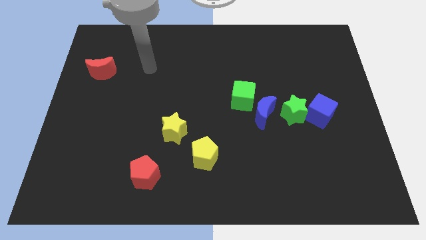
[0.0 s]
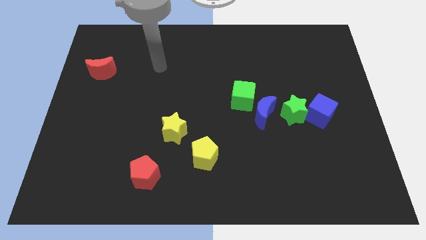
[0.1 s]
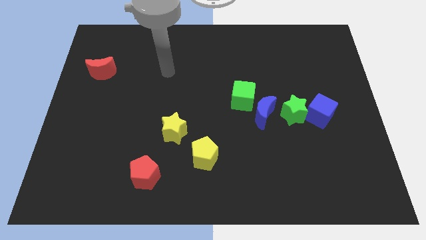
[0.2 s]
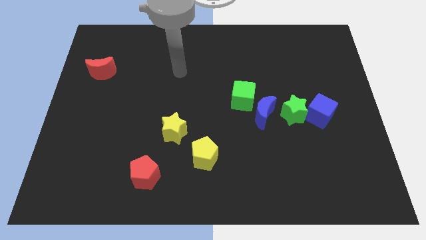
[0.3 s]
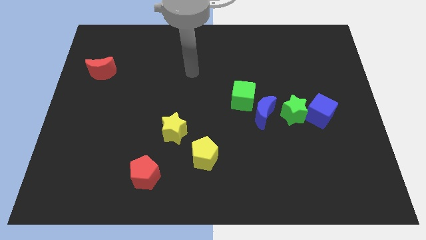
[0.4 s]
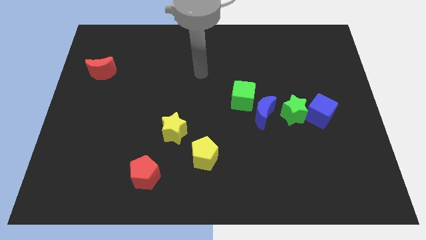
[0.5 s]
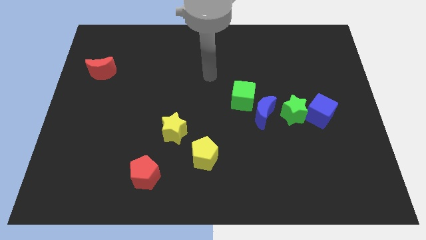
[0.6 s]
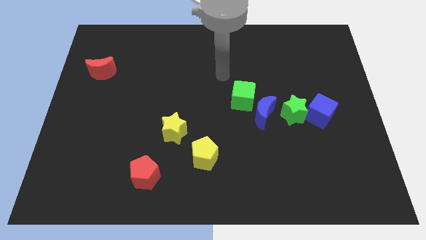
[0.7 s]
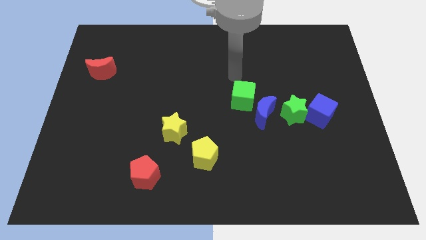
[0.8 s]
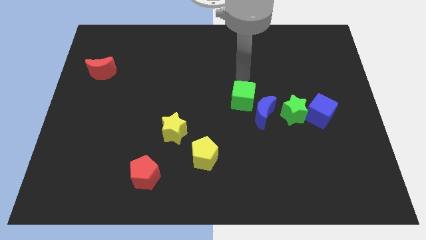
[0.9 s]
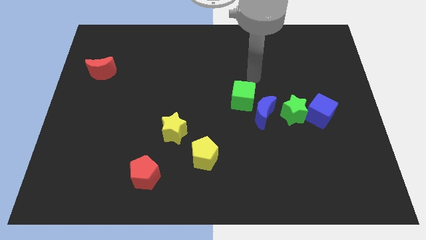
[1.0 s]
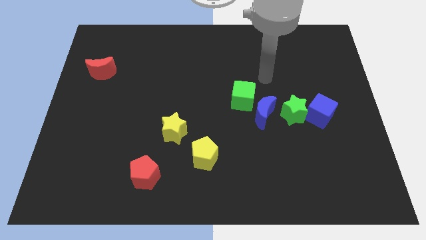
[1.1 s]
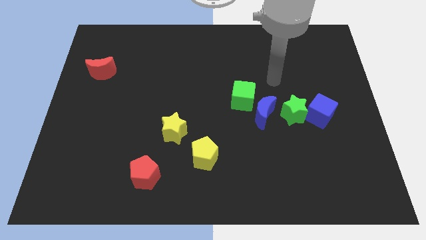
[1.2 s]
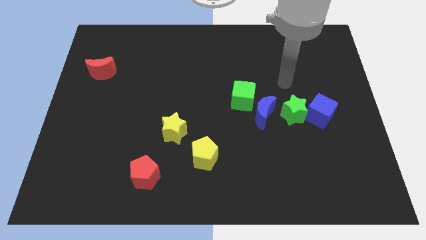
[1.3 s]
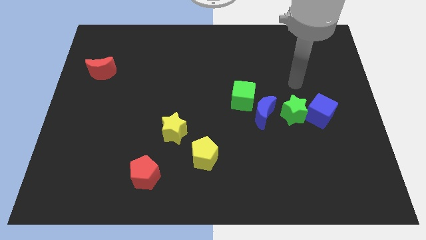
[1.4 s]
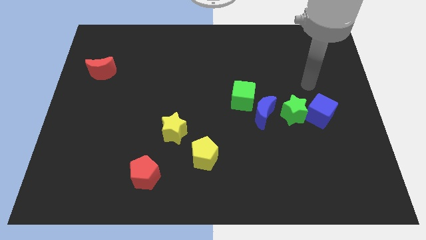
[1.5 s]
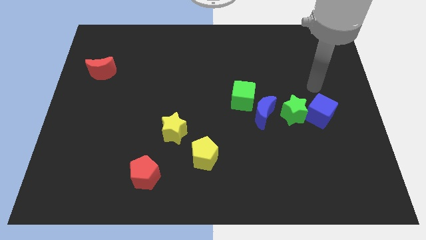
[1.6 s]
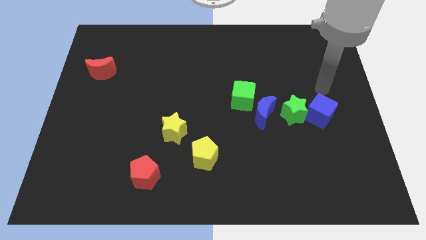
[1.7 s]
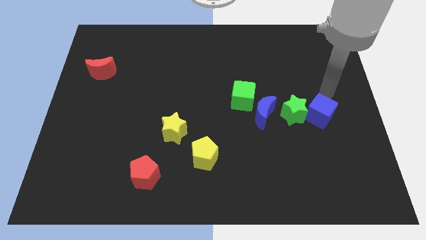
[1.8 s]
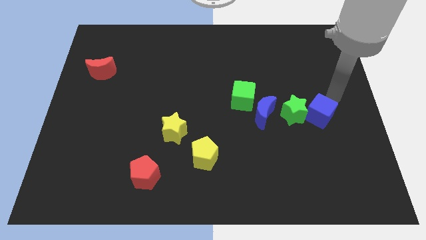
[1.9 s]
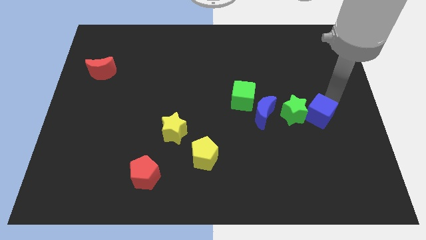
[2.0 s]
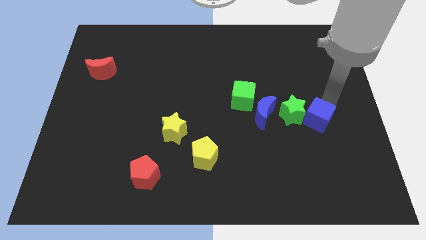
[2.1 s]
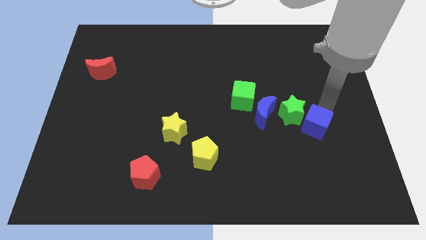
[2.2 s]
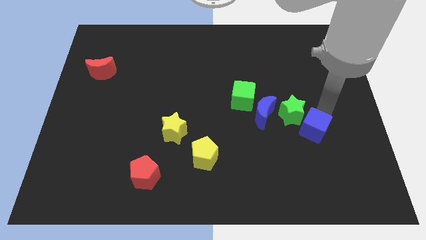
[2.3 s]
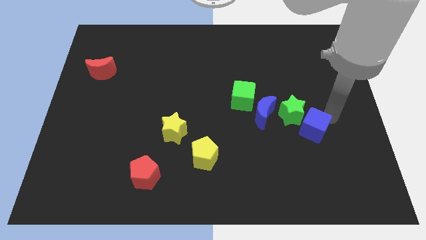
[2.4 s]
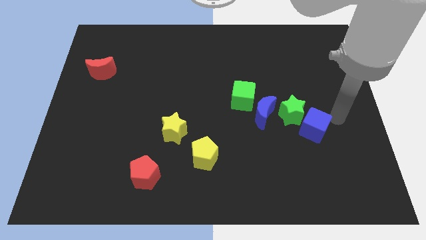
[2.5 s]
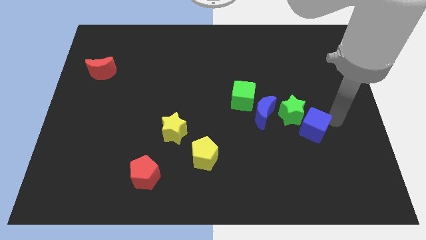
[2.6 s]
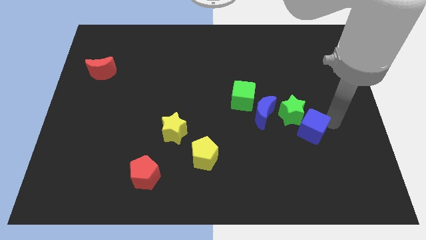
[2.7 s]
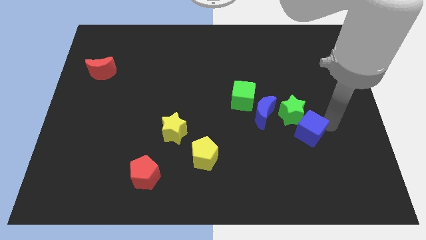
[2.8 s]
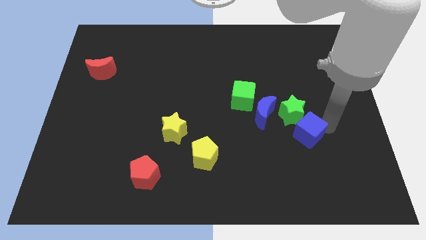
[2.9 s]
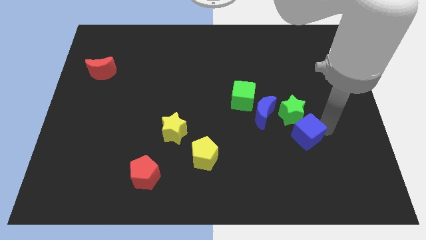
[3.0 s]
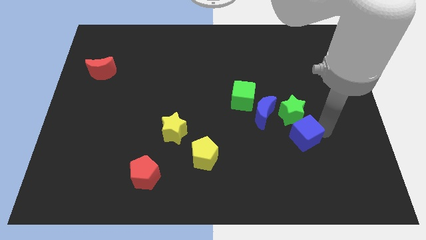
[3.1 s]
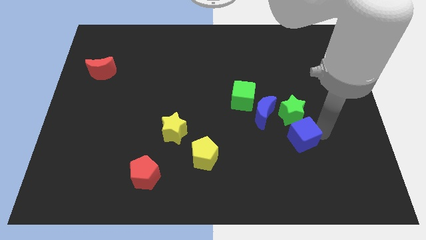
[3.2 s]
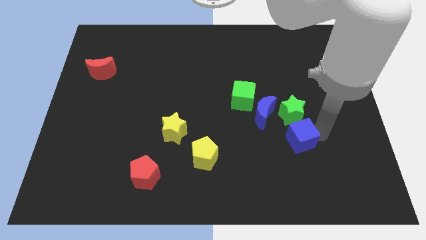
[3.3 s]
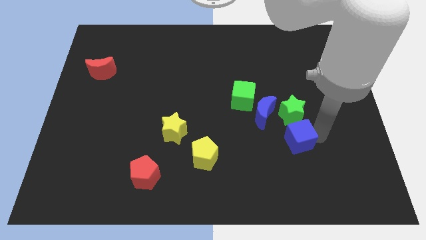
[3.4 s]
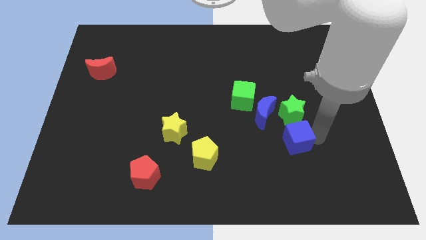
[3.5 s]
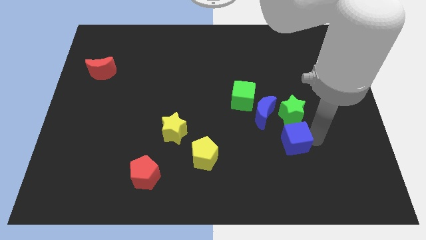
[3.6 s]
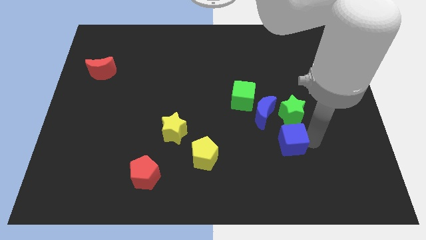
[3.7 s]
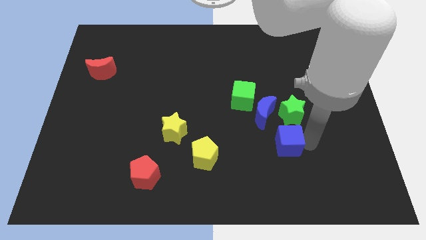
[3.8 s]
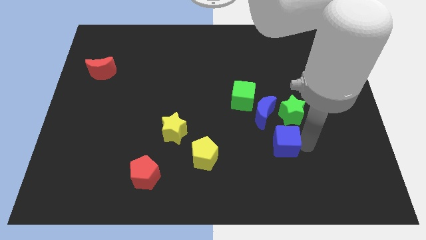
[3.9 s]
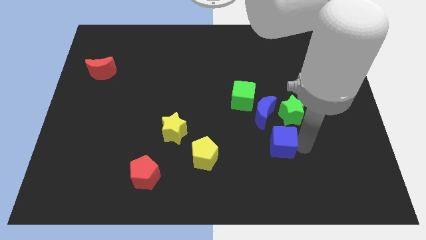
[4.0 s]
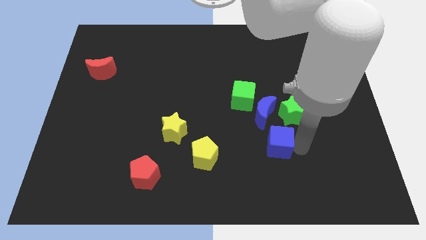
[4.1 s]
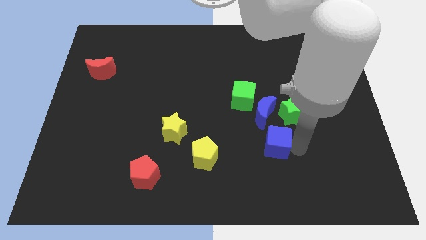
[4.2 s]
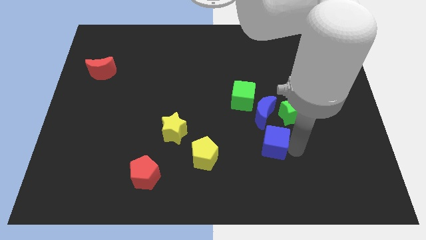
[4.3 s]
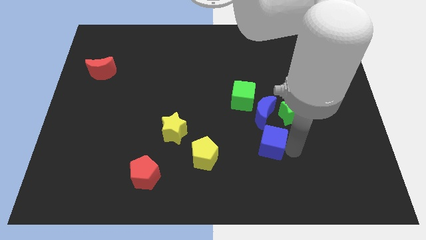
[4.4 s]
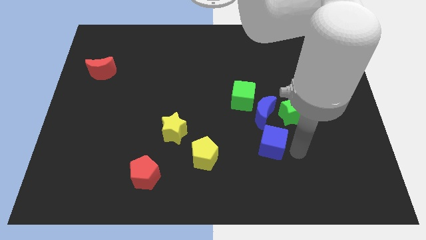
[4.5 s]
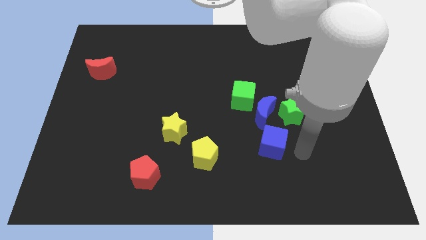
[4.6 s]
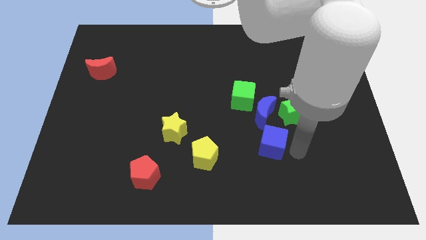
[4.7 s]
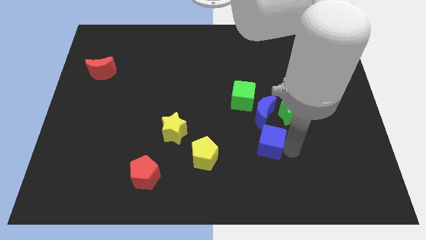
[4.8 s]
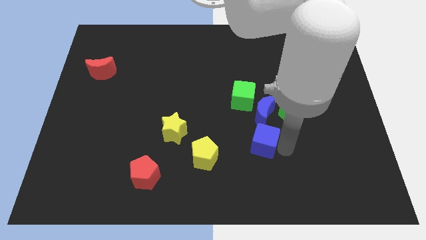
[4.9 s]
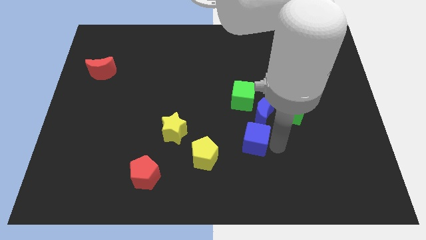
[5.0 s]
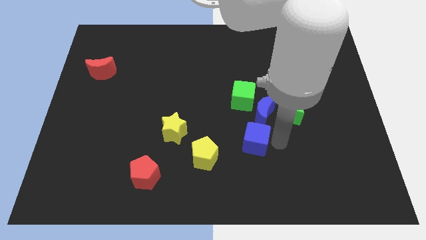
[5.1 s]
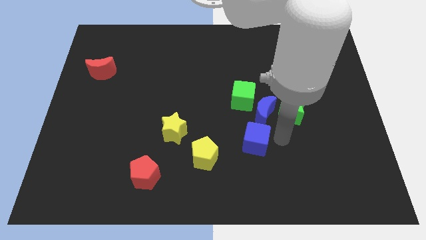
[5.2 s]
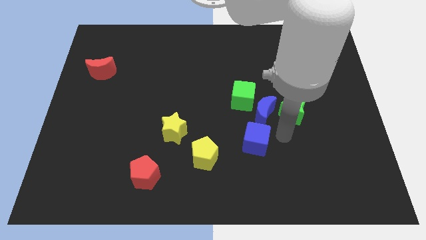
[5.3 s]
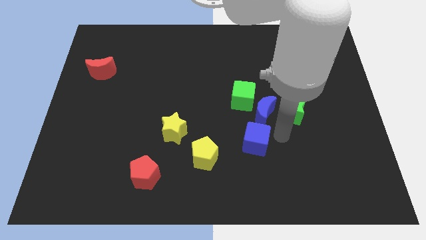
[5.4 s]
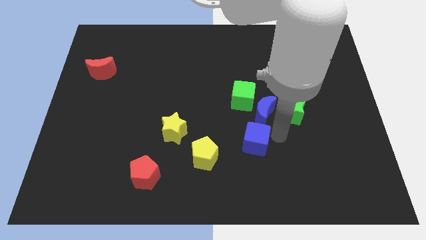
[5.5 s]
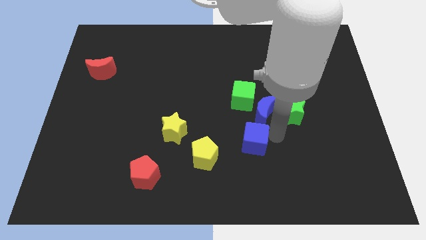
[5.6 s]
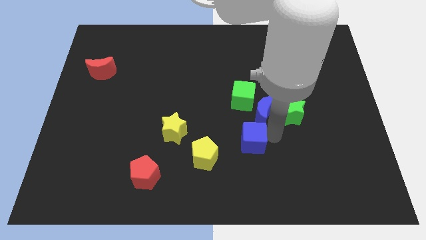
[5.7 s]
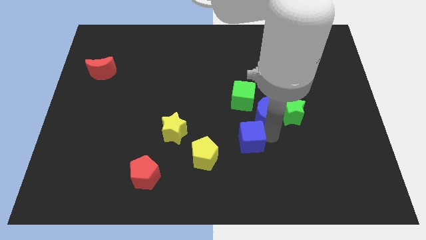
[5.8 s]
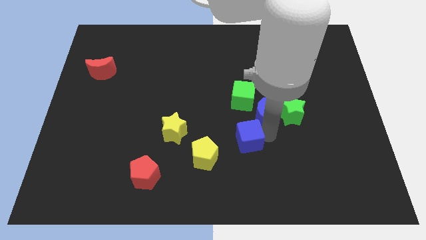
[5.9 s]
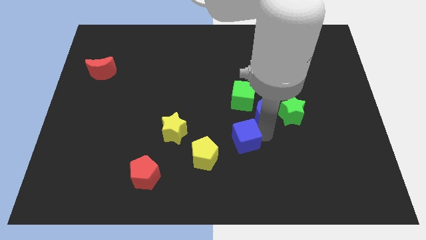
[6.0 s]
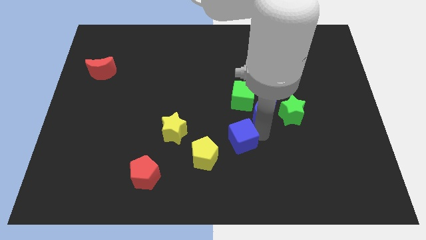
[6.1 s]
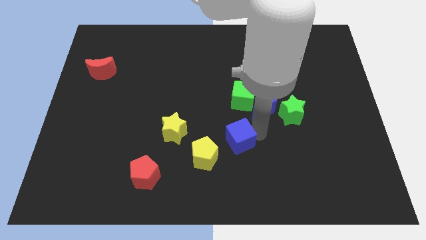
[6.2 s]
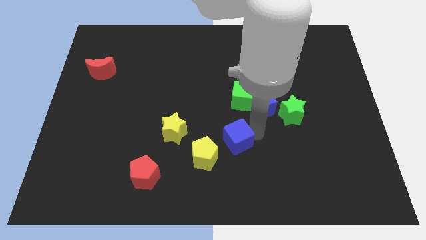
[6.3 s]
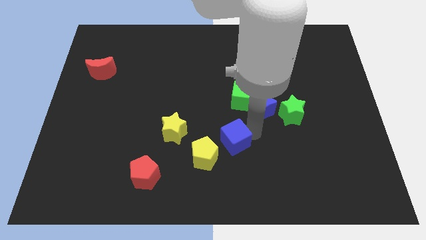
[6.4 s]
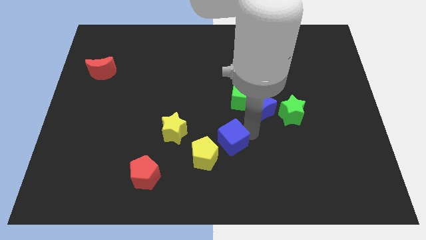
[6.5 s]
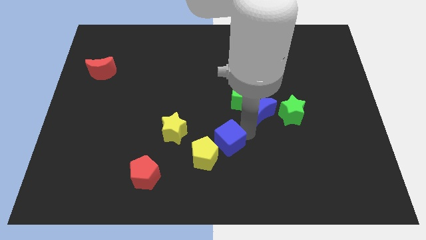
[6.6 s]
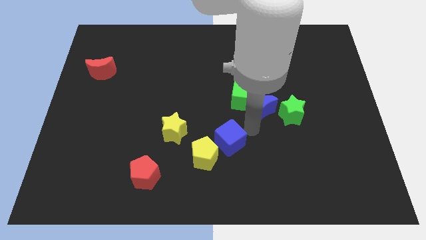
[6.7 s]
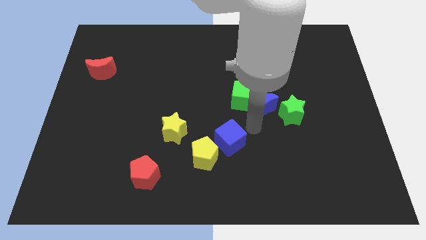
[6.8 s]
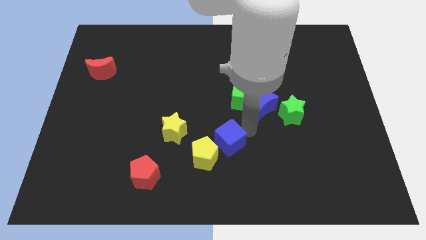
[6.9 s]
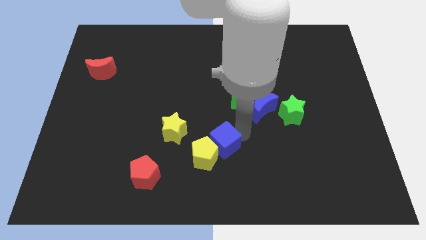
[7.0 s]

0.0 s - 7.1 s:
put the blue cube towards the yellow pentagon
